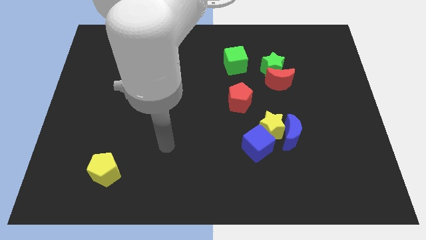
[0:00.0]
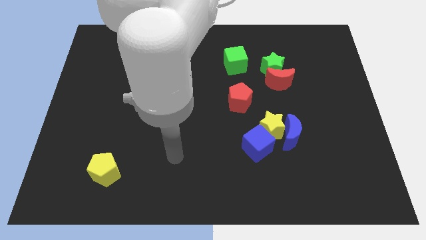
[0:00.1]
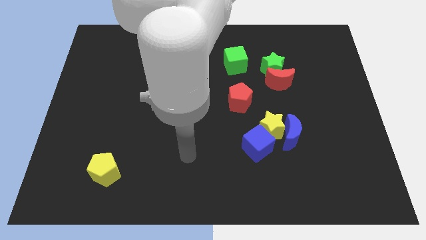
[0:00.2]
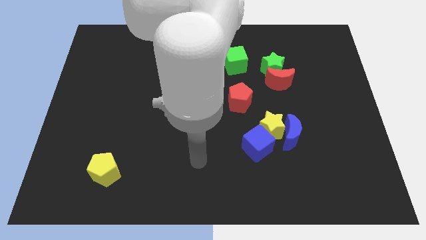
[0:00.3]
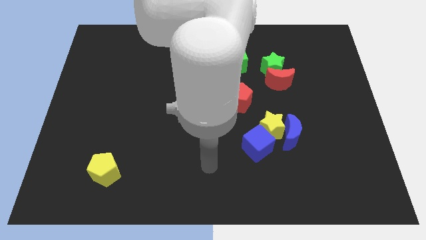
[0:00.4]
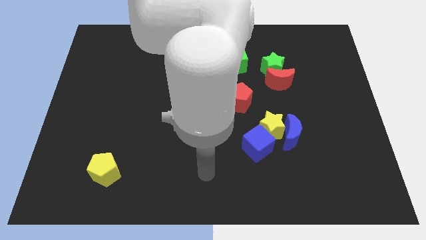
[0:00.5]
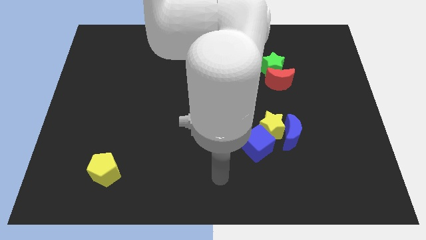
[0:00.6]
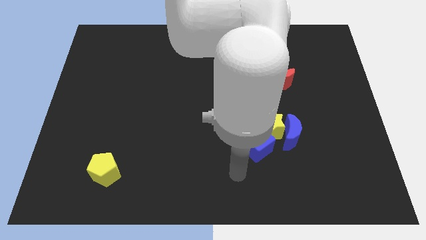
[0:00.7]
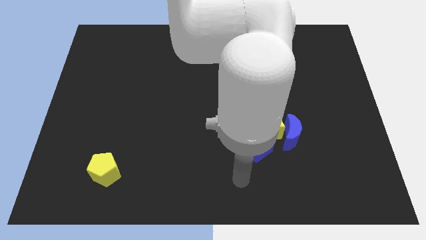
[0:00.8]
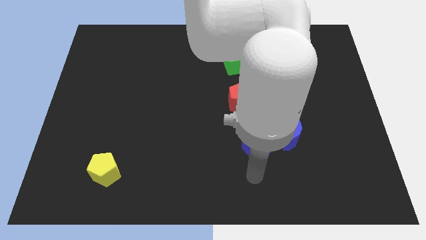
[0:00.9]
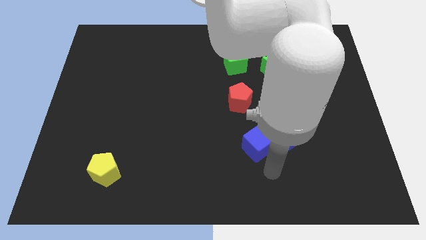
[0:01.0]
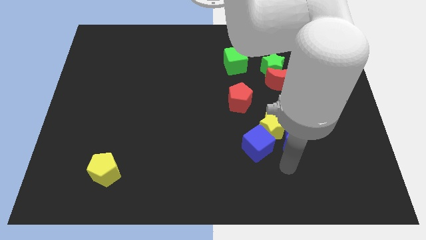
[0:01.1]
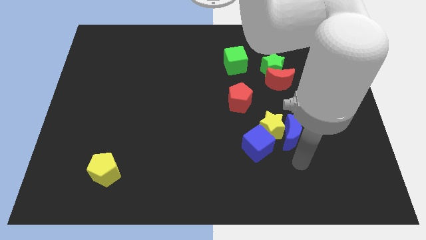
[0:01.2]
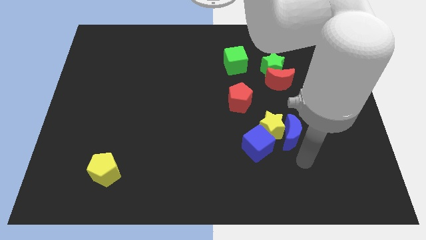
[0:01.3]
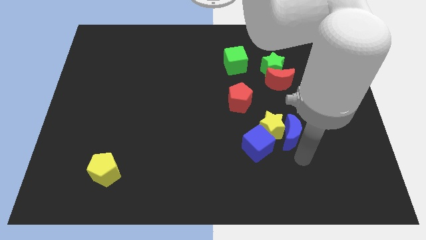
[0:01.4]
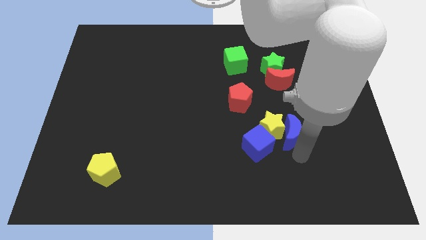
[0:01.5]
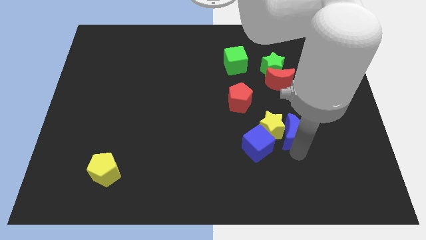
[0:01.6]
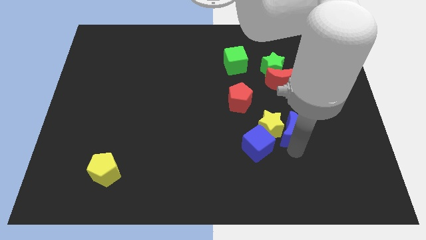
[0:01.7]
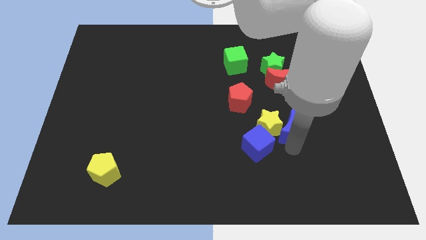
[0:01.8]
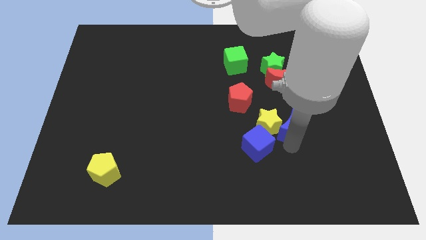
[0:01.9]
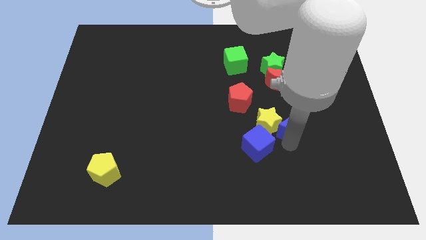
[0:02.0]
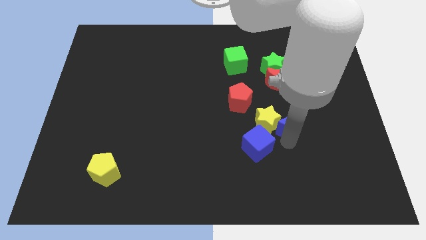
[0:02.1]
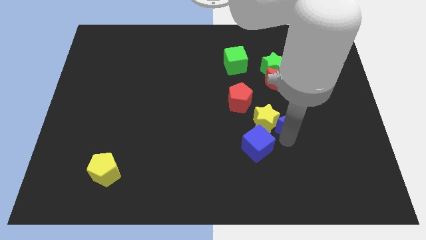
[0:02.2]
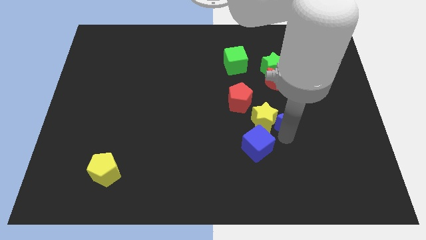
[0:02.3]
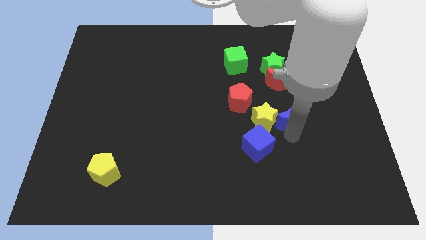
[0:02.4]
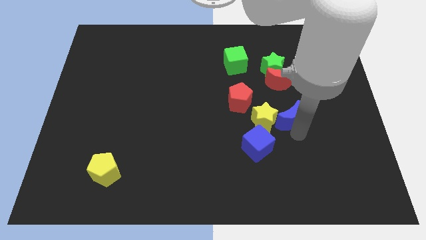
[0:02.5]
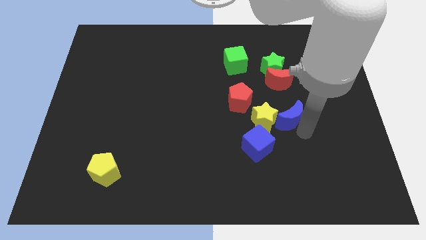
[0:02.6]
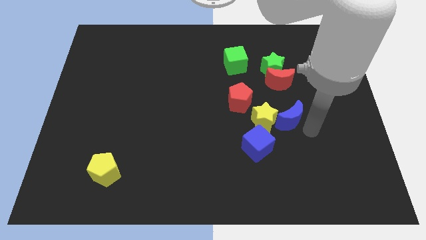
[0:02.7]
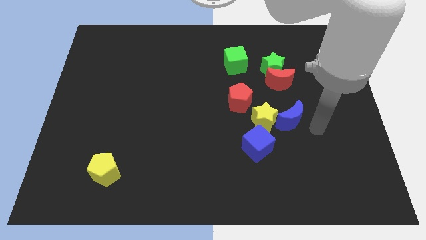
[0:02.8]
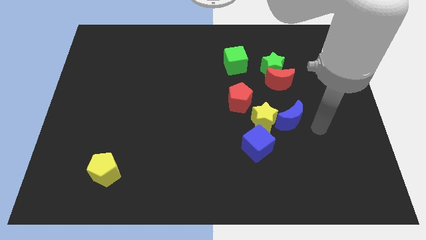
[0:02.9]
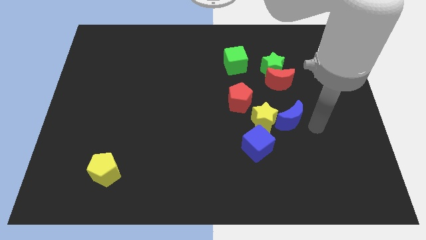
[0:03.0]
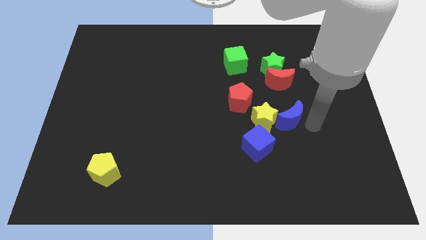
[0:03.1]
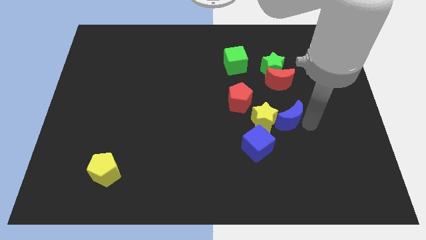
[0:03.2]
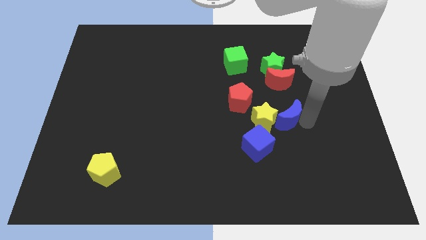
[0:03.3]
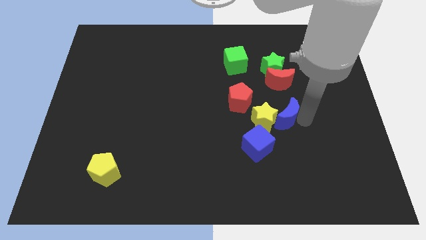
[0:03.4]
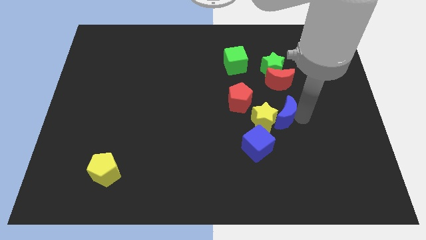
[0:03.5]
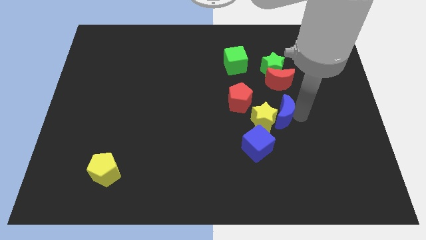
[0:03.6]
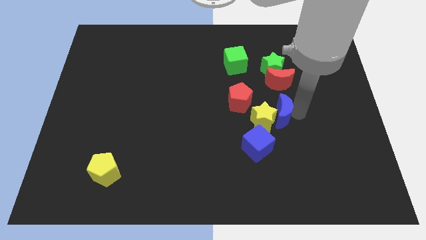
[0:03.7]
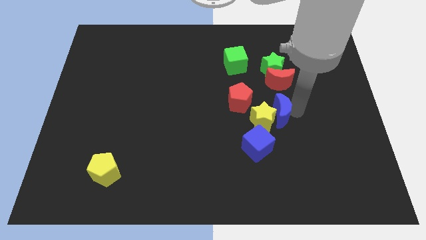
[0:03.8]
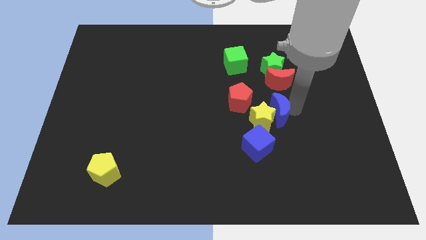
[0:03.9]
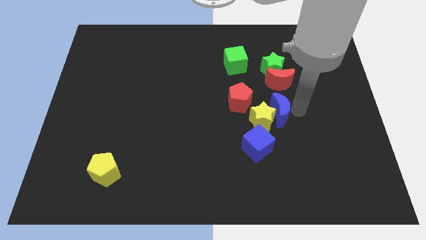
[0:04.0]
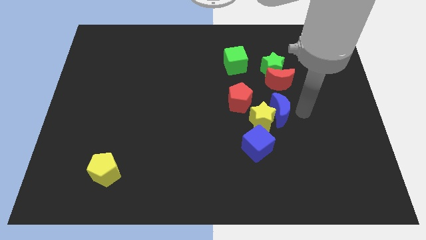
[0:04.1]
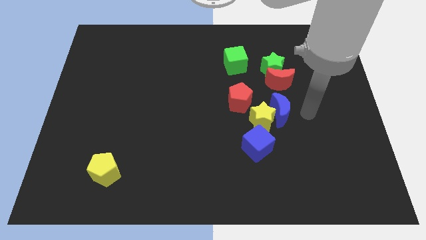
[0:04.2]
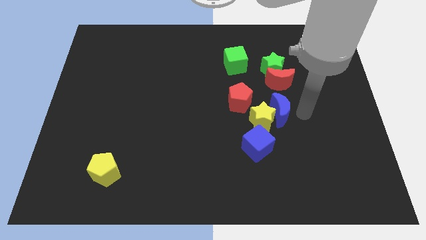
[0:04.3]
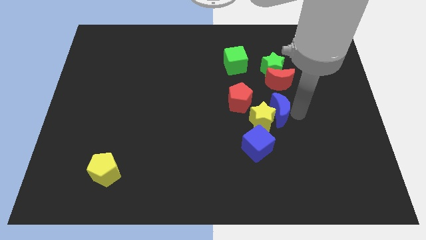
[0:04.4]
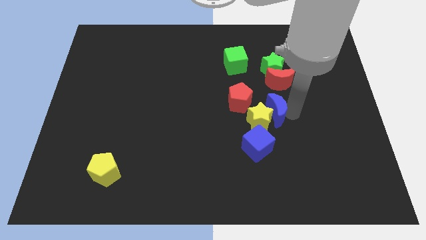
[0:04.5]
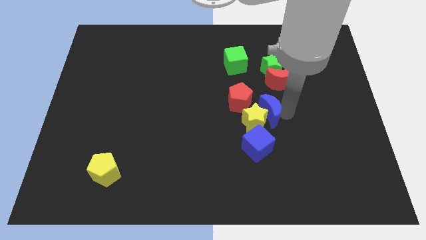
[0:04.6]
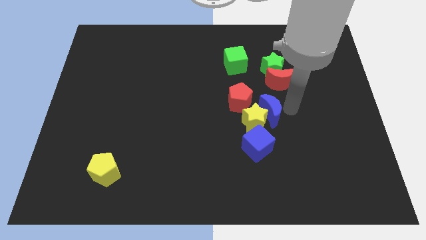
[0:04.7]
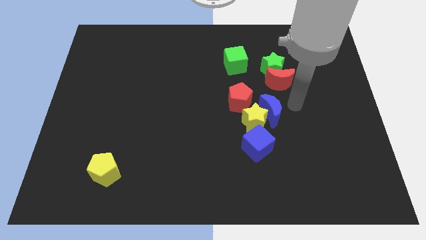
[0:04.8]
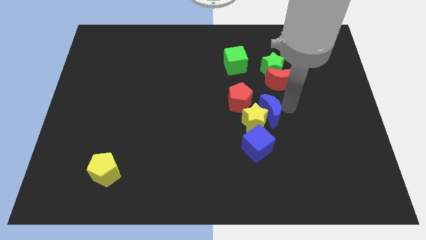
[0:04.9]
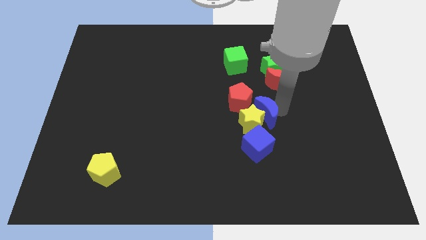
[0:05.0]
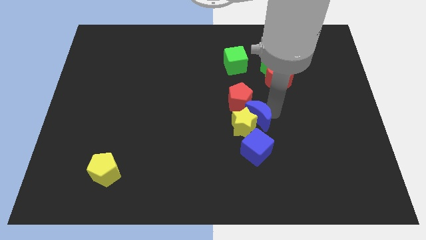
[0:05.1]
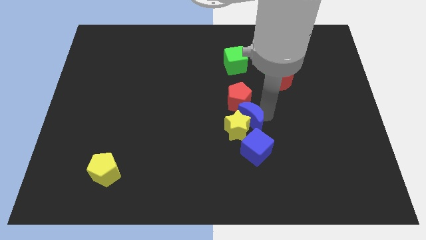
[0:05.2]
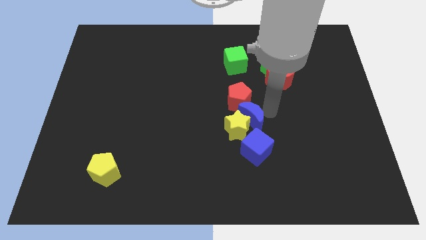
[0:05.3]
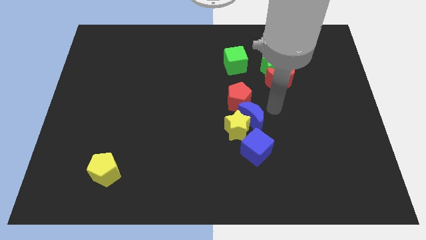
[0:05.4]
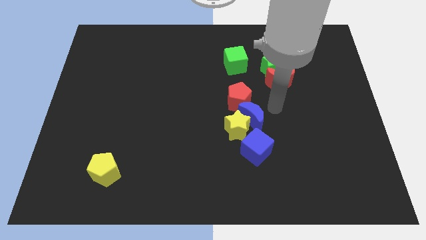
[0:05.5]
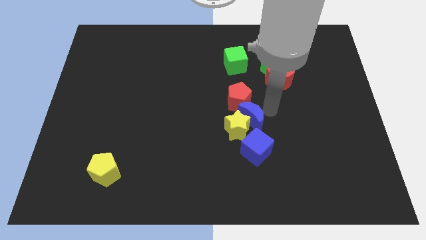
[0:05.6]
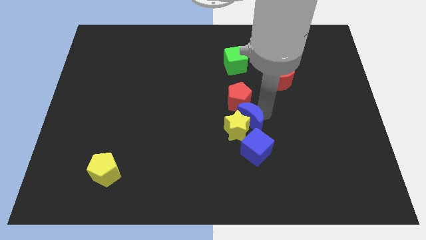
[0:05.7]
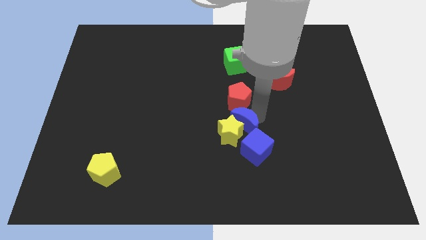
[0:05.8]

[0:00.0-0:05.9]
move the blue moon diagonally up and to the left of the blue cube

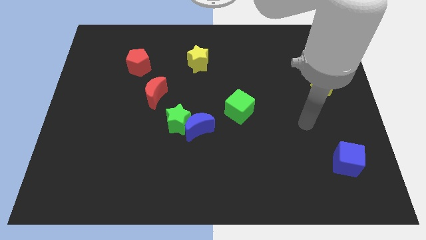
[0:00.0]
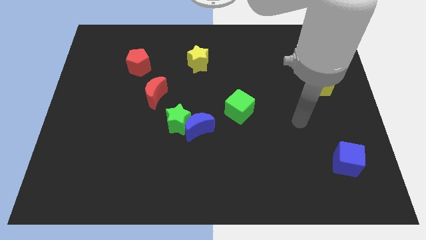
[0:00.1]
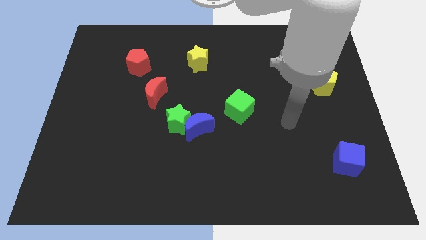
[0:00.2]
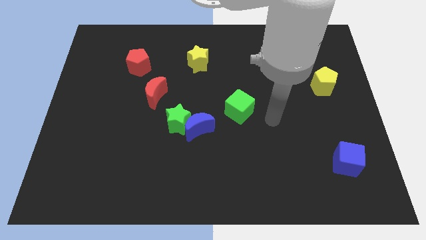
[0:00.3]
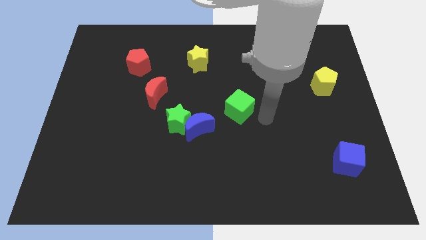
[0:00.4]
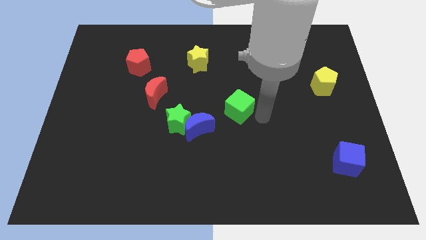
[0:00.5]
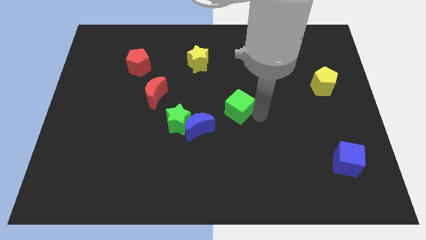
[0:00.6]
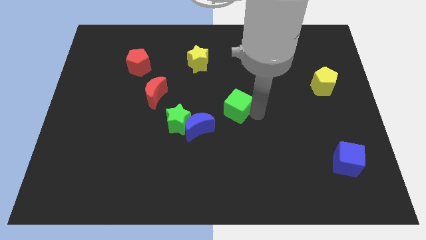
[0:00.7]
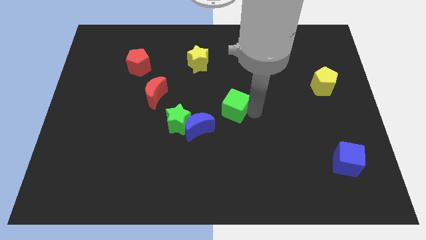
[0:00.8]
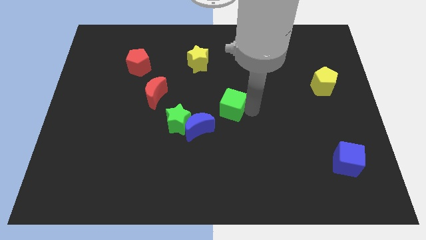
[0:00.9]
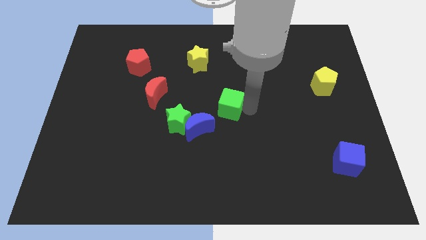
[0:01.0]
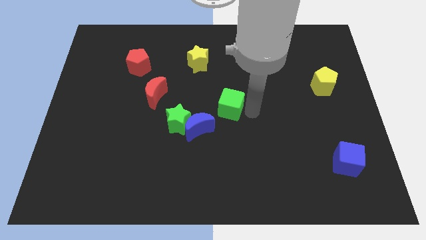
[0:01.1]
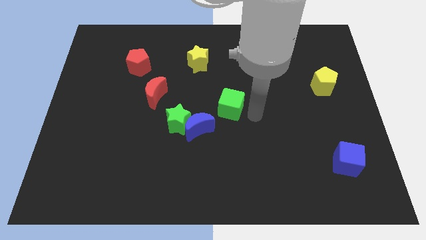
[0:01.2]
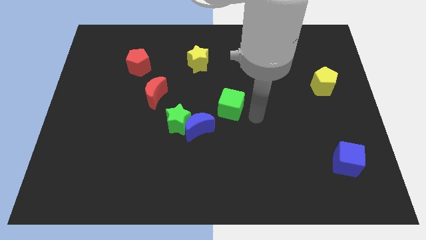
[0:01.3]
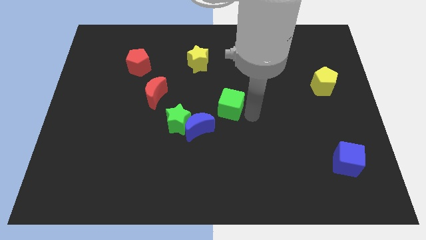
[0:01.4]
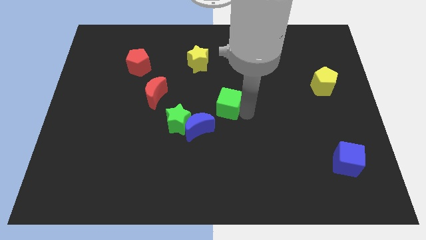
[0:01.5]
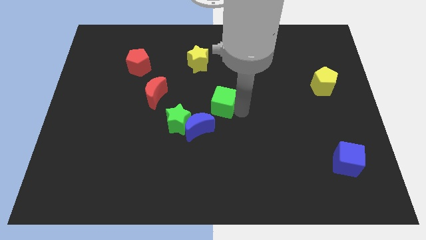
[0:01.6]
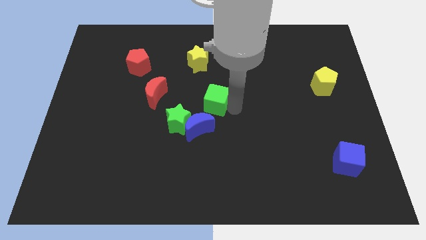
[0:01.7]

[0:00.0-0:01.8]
slide the green cube just right of the red moon
